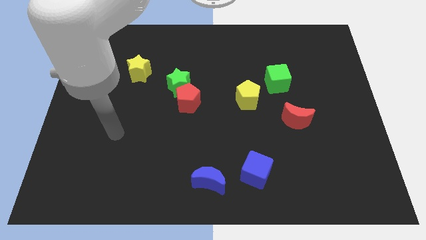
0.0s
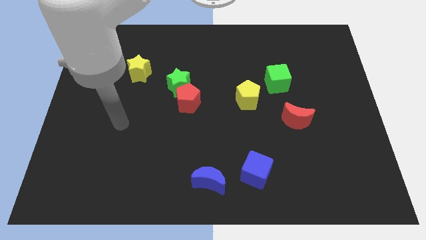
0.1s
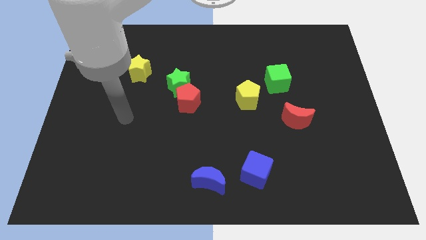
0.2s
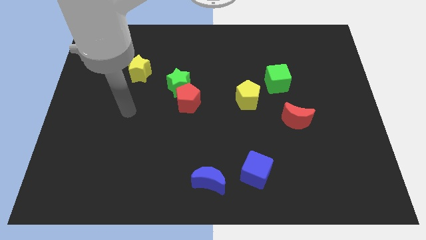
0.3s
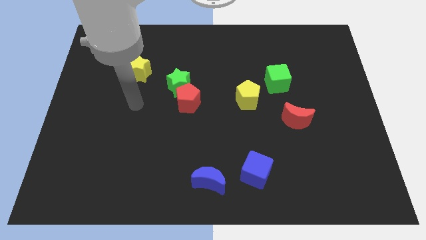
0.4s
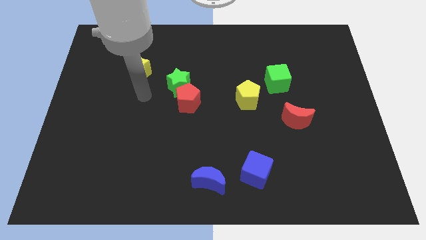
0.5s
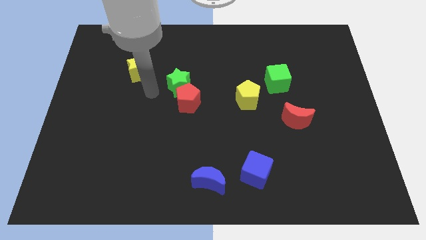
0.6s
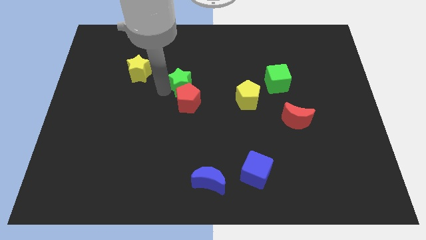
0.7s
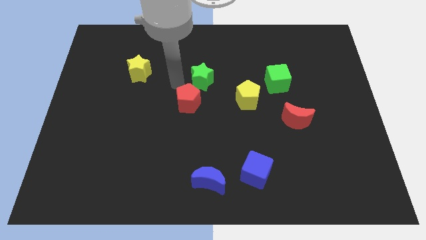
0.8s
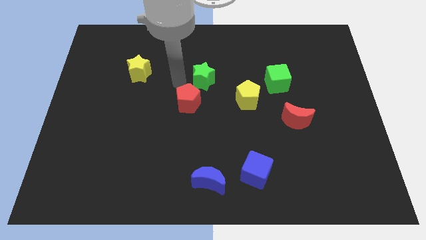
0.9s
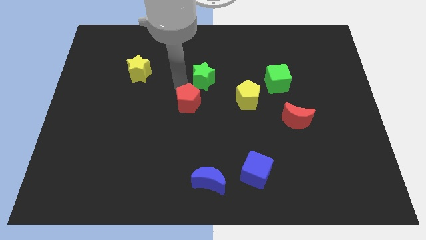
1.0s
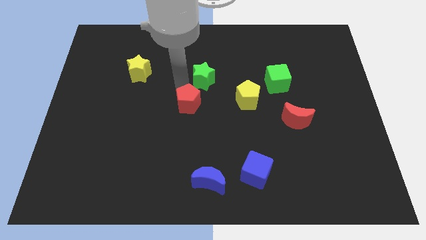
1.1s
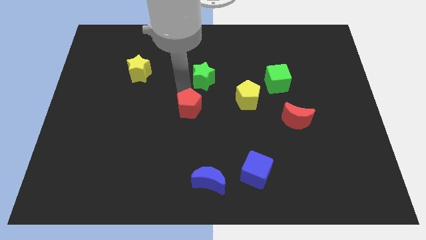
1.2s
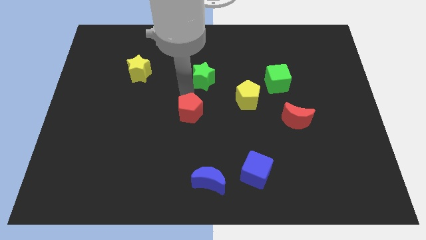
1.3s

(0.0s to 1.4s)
separate the red pentagon from the green star

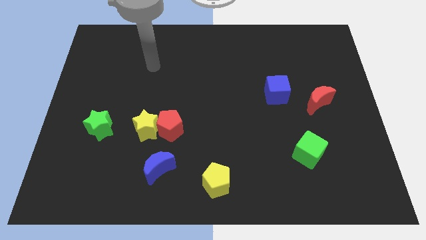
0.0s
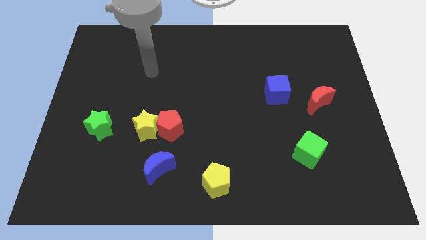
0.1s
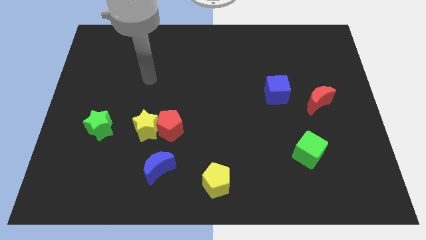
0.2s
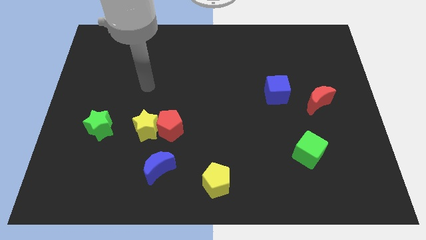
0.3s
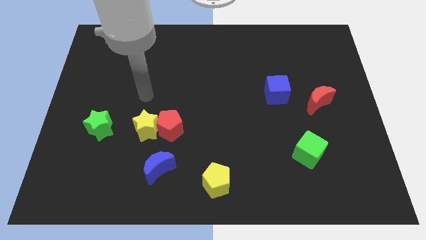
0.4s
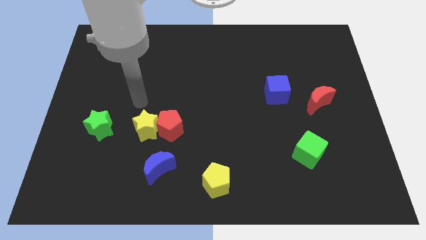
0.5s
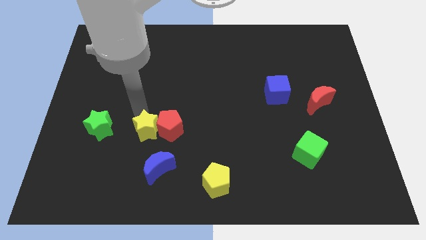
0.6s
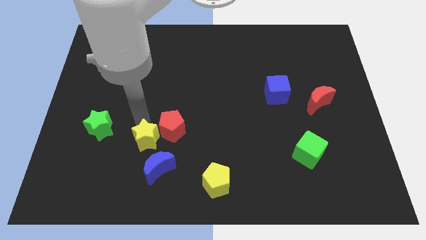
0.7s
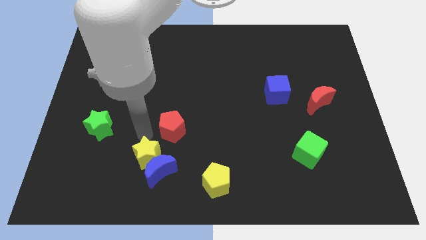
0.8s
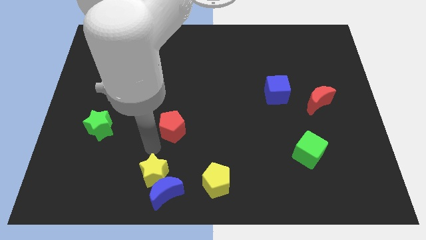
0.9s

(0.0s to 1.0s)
move the red pentagon away from the yellow star

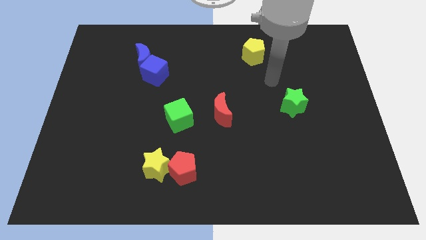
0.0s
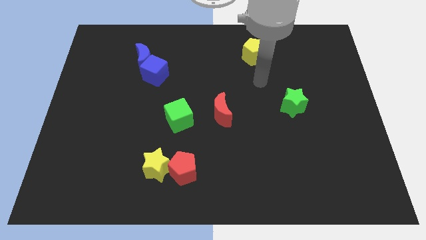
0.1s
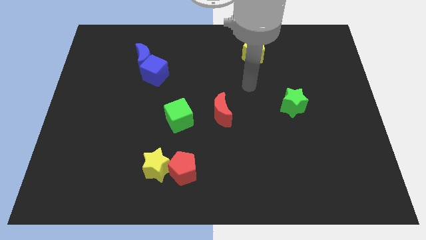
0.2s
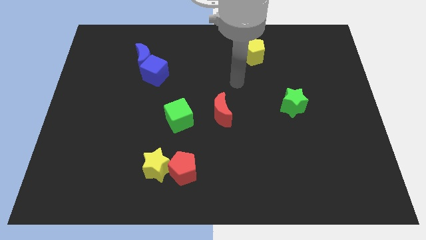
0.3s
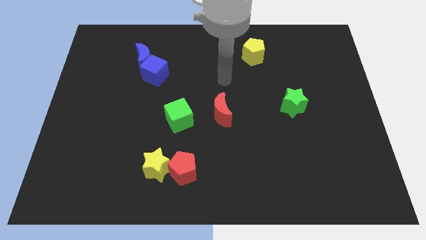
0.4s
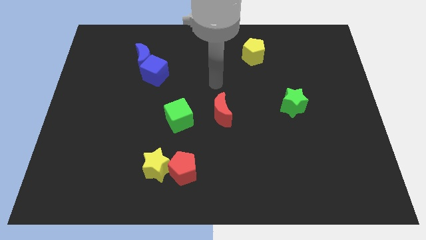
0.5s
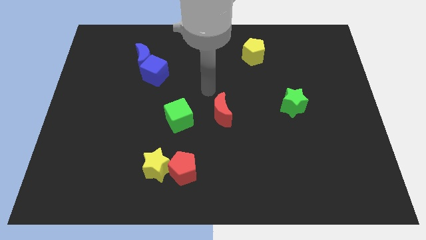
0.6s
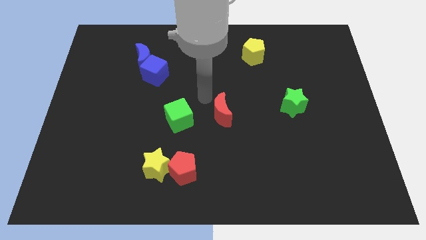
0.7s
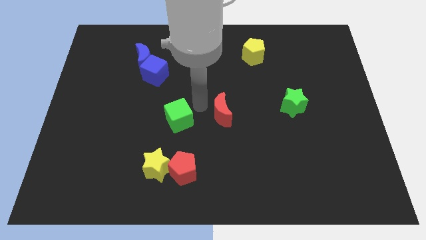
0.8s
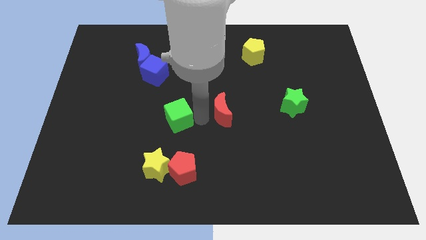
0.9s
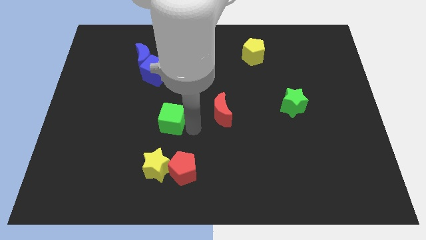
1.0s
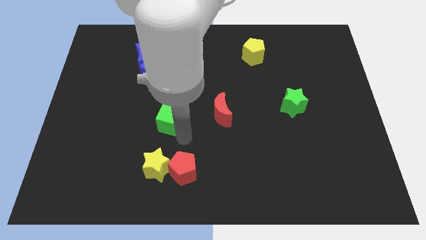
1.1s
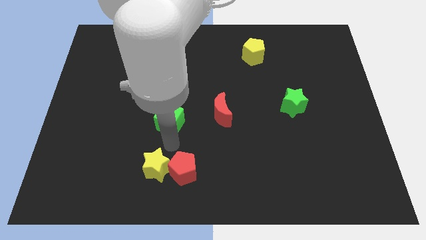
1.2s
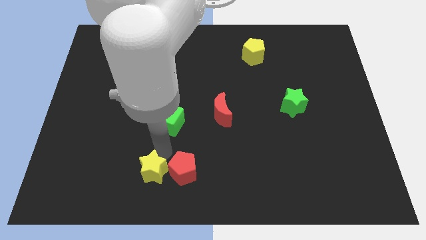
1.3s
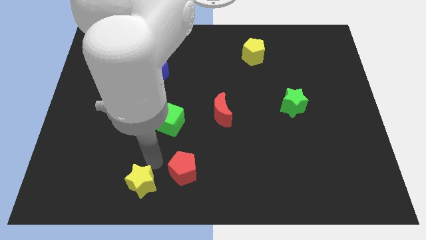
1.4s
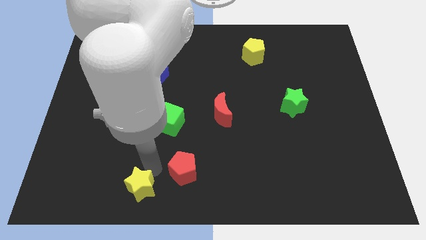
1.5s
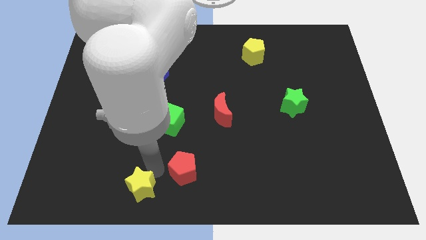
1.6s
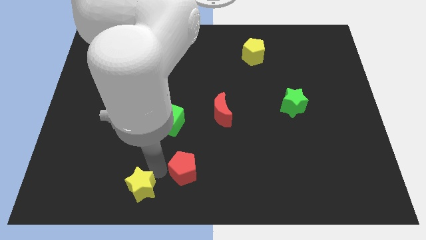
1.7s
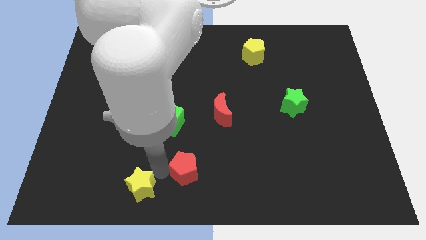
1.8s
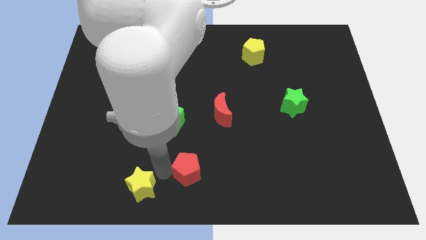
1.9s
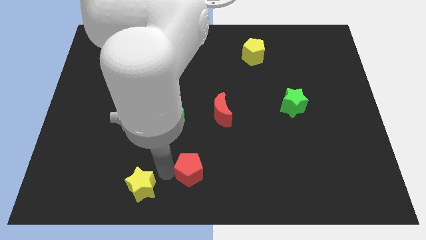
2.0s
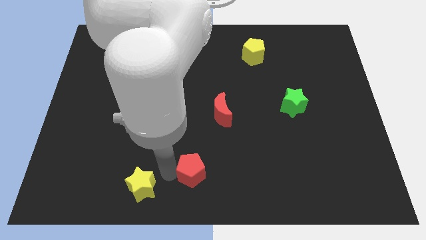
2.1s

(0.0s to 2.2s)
pull the red pentagon apart from the yellow star

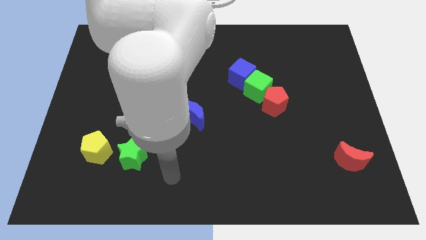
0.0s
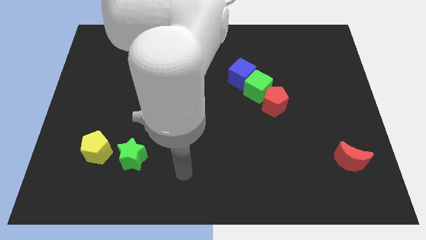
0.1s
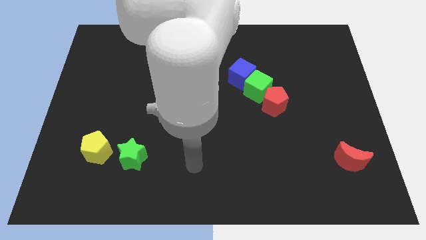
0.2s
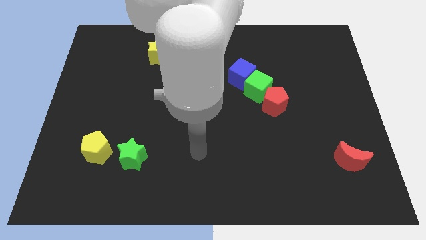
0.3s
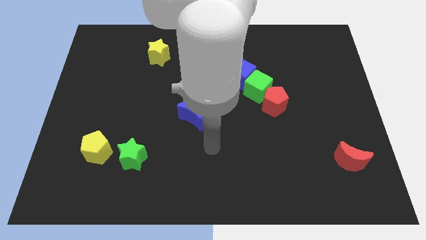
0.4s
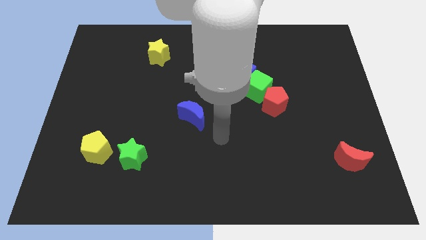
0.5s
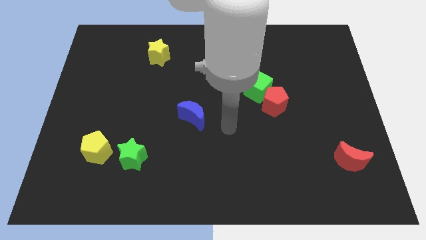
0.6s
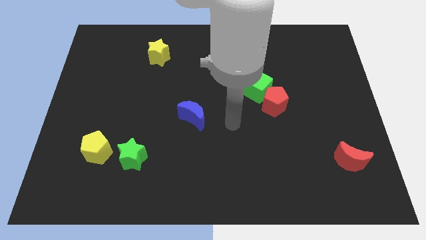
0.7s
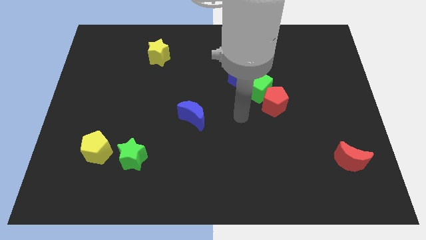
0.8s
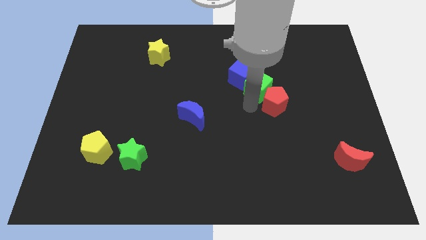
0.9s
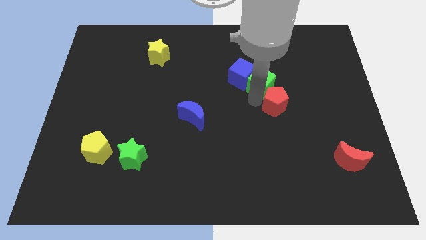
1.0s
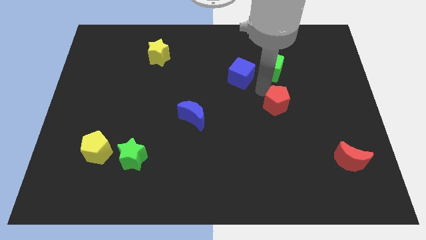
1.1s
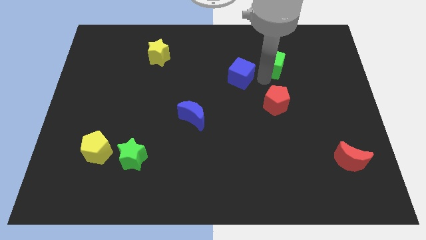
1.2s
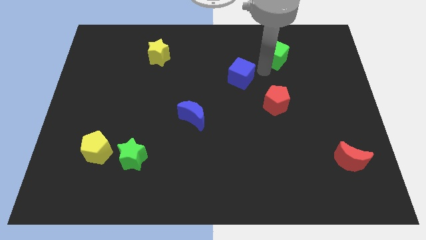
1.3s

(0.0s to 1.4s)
move the blue cube away from the green cube

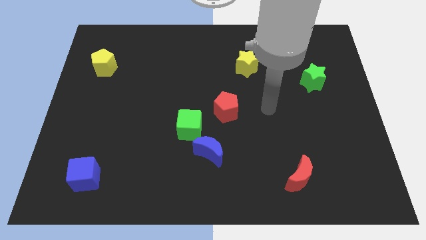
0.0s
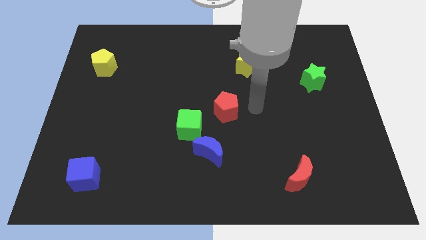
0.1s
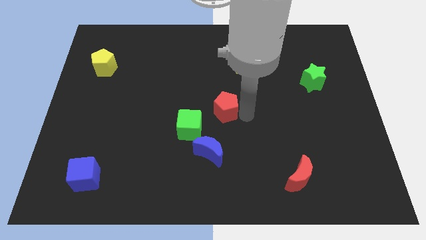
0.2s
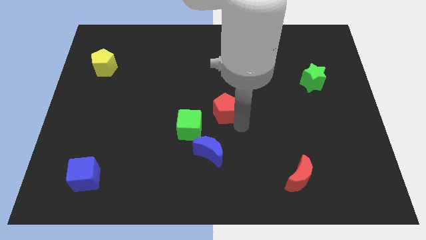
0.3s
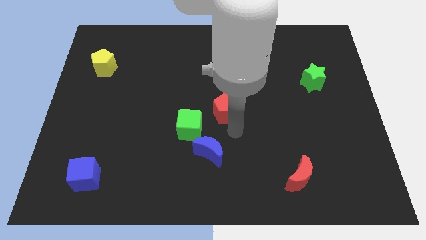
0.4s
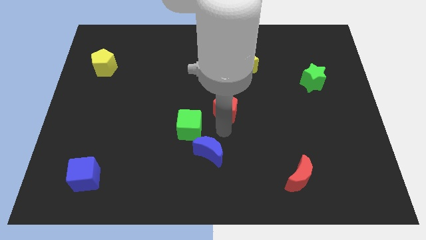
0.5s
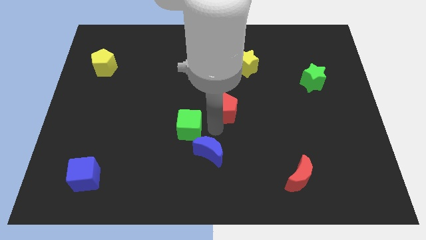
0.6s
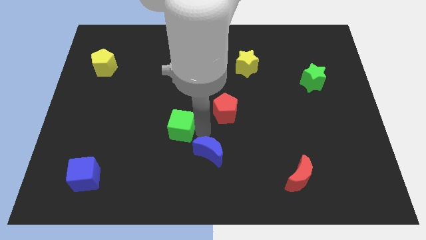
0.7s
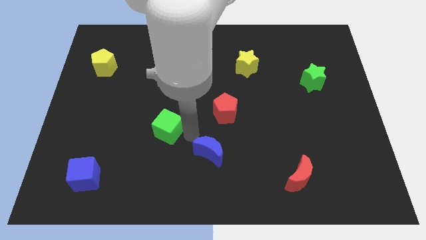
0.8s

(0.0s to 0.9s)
separate the blue moon from the green cube

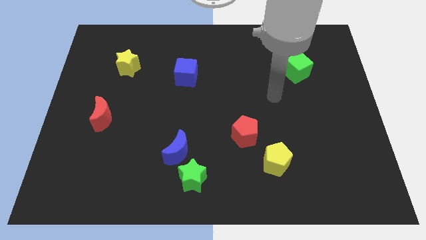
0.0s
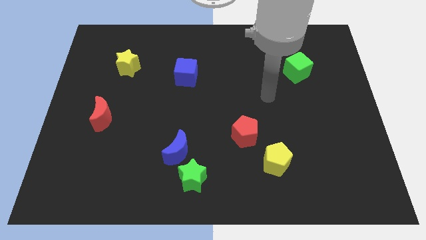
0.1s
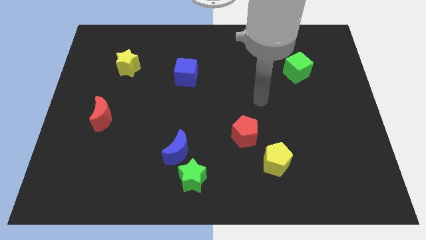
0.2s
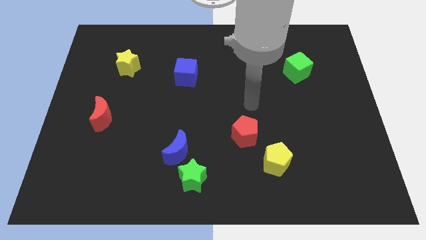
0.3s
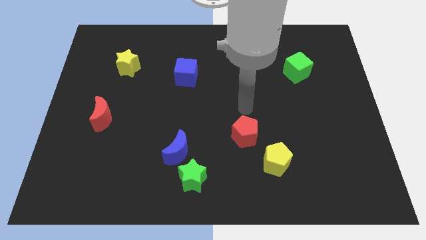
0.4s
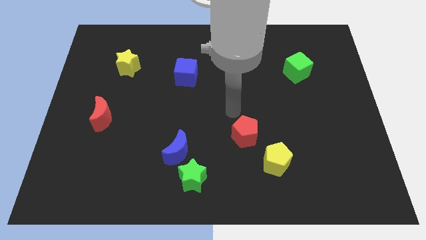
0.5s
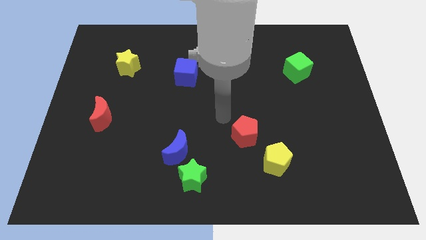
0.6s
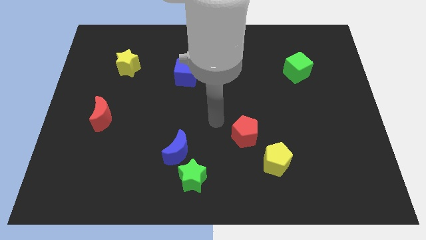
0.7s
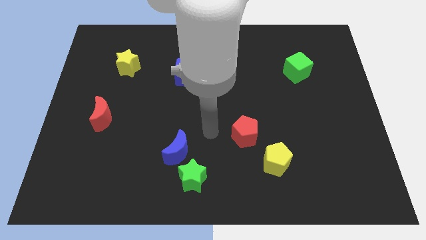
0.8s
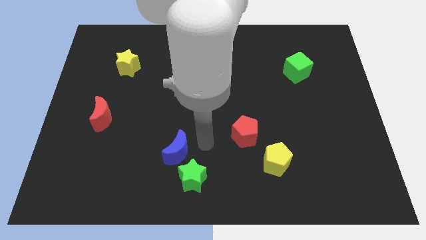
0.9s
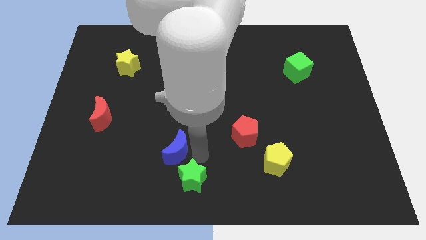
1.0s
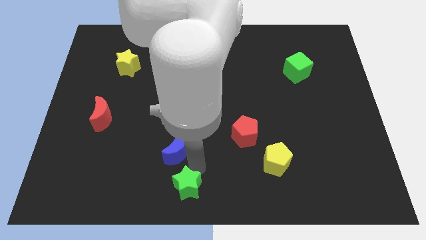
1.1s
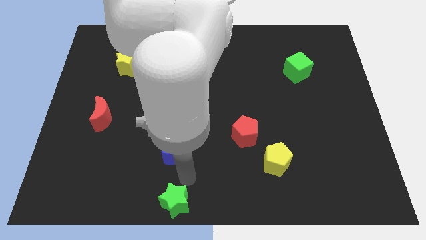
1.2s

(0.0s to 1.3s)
move the blue moon away from the green star

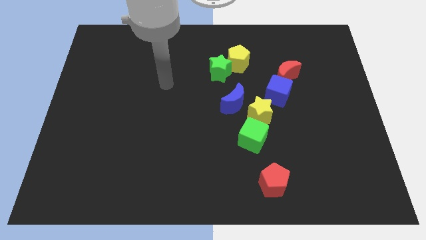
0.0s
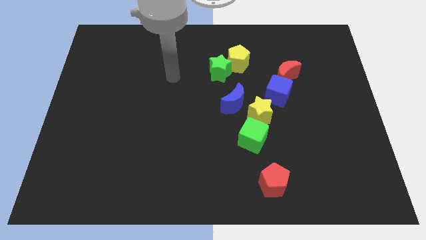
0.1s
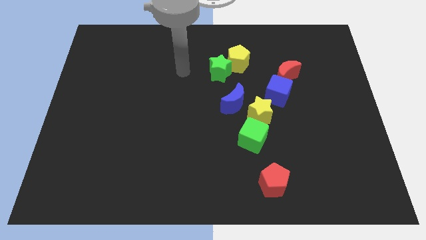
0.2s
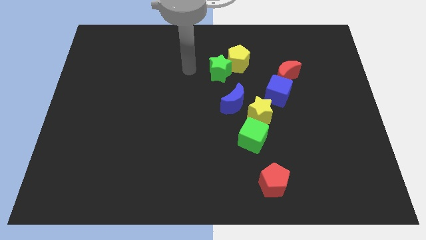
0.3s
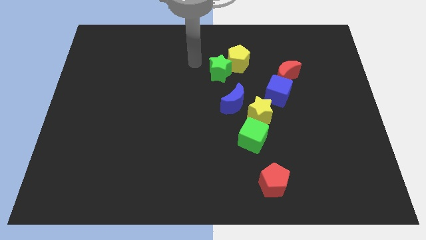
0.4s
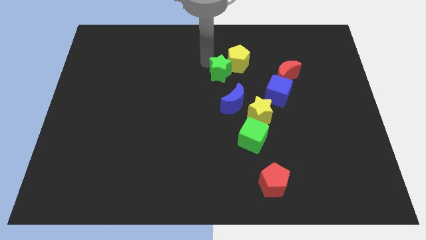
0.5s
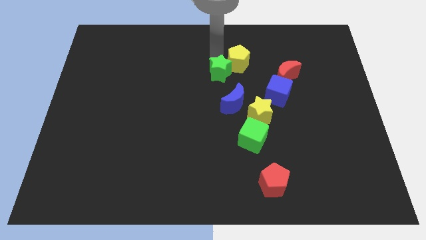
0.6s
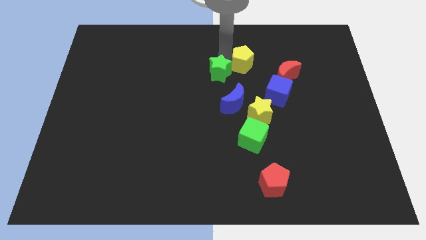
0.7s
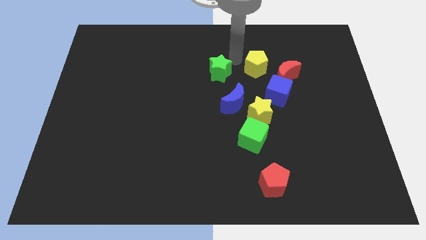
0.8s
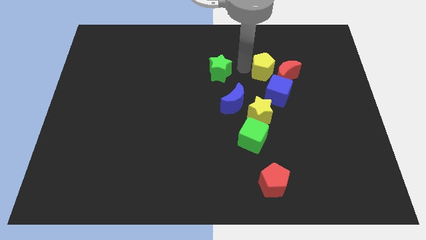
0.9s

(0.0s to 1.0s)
separate the green star from the yellow pentagon

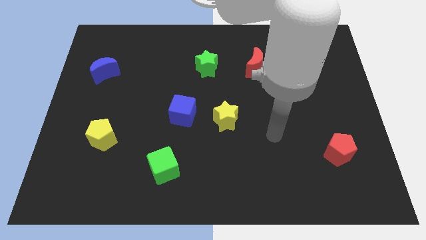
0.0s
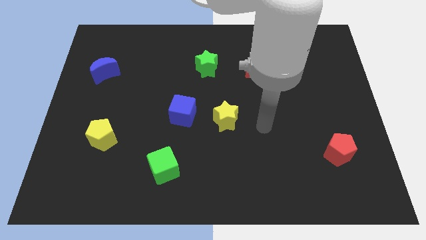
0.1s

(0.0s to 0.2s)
pull the blue cube apart from the yellow star
